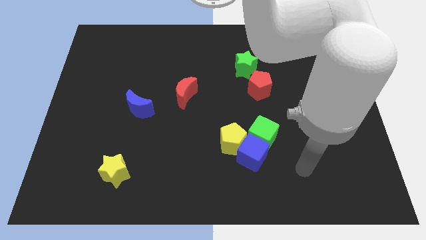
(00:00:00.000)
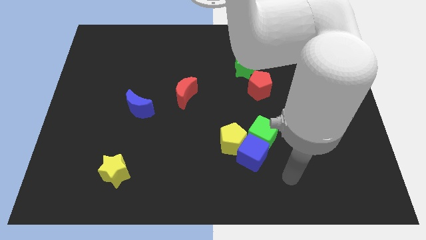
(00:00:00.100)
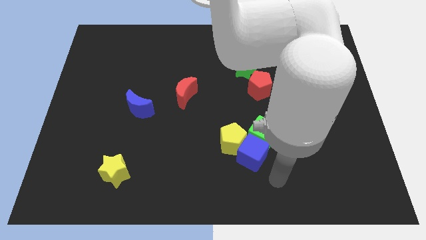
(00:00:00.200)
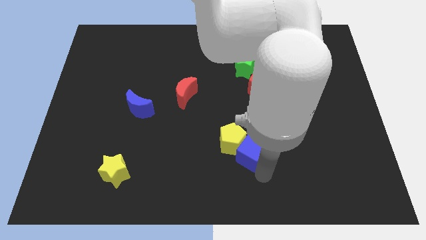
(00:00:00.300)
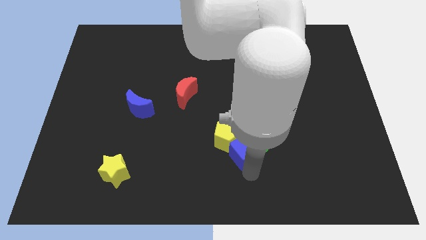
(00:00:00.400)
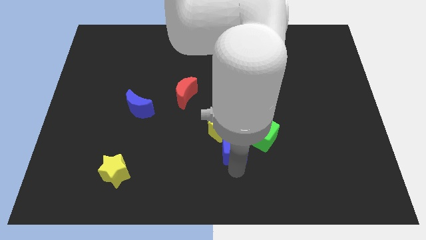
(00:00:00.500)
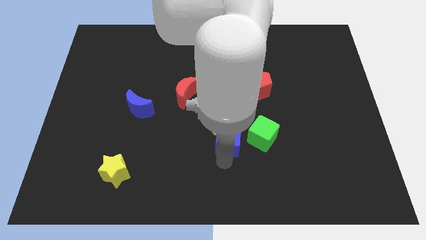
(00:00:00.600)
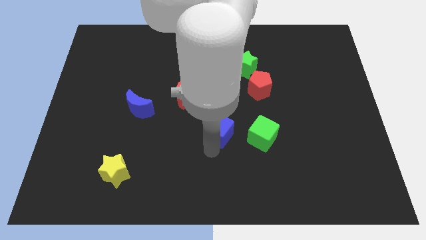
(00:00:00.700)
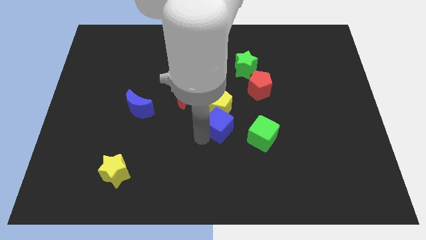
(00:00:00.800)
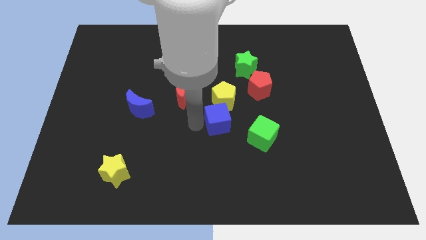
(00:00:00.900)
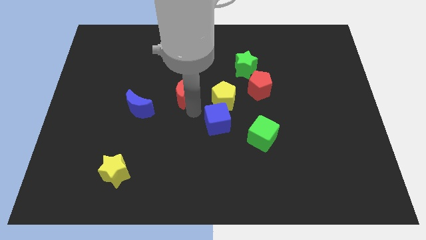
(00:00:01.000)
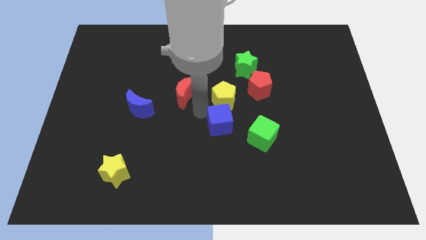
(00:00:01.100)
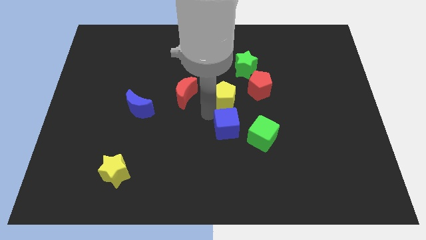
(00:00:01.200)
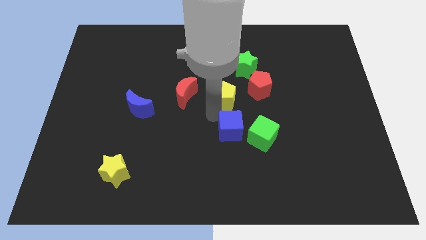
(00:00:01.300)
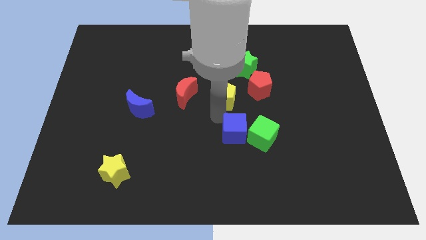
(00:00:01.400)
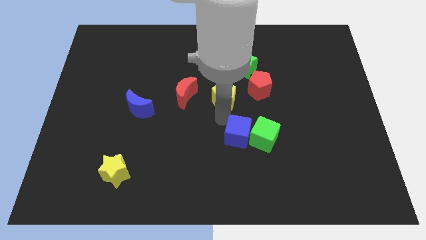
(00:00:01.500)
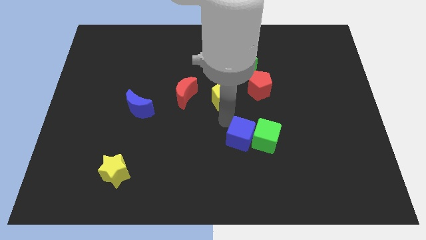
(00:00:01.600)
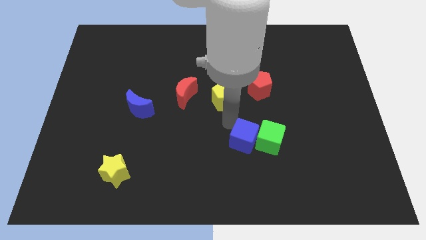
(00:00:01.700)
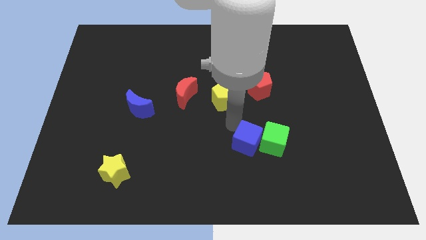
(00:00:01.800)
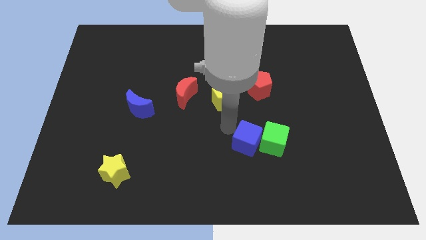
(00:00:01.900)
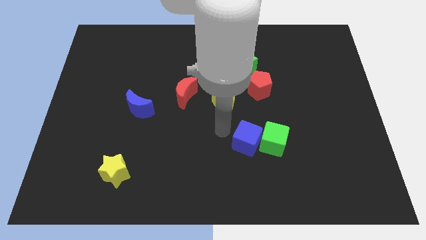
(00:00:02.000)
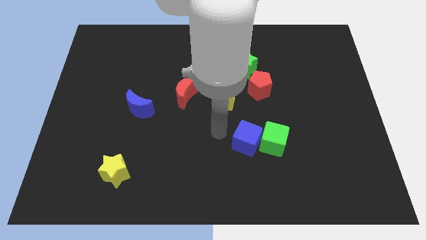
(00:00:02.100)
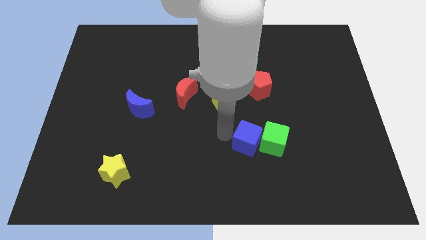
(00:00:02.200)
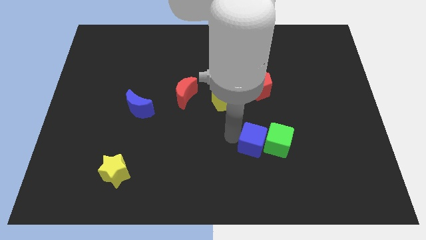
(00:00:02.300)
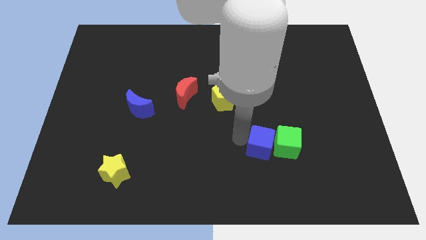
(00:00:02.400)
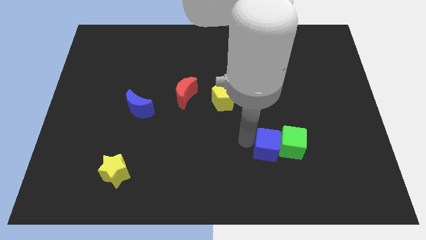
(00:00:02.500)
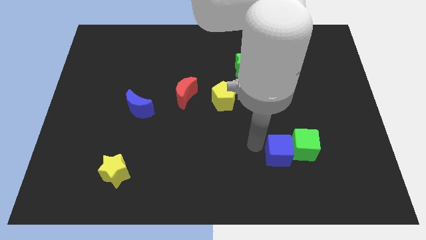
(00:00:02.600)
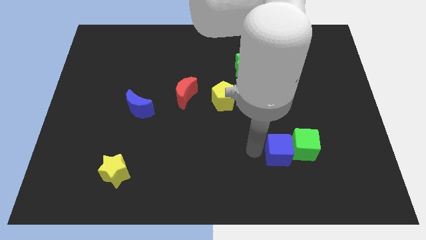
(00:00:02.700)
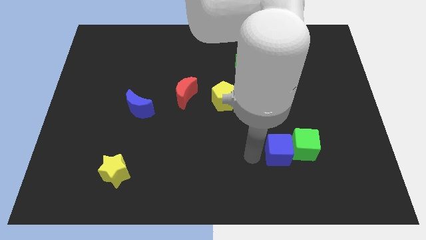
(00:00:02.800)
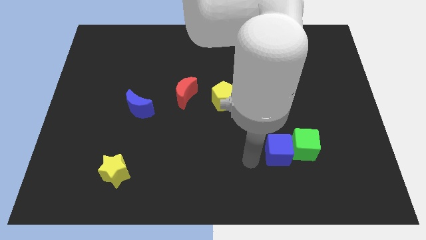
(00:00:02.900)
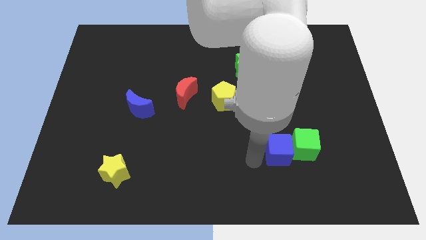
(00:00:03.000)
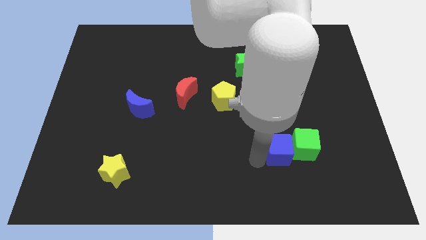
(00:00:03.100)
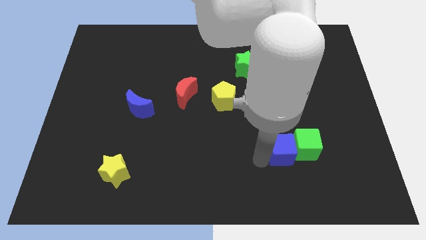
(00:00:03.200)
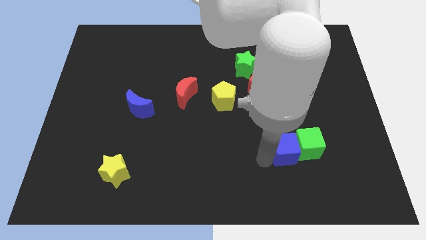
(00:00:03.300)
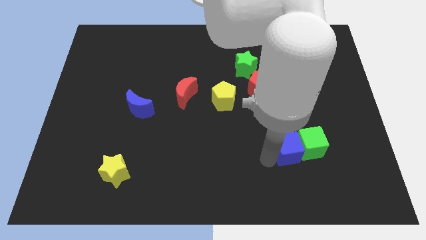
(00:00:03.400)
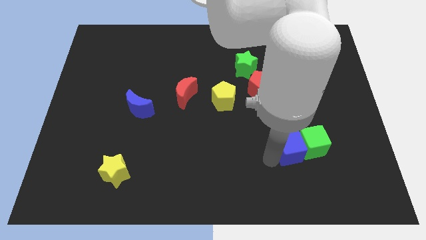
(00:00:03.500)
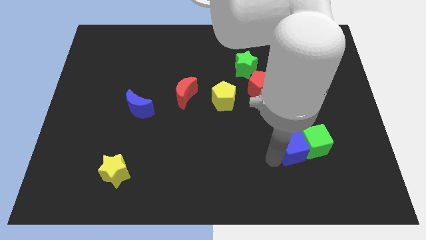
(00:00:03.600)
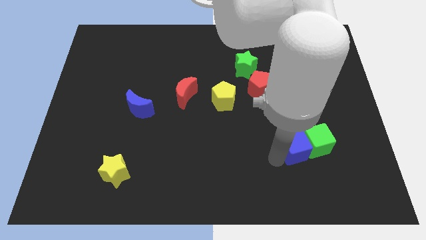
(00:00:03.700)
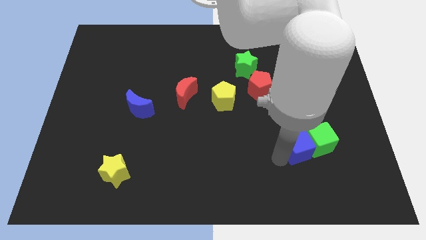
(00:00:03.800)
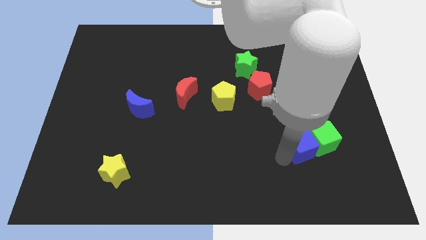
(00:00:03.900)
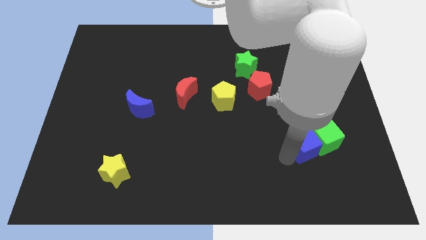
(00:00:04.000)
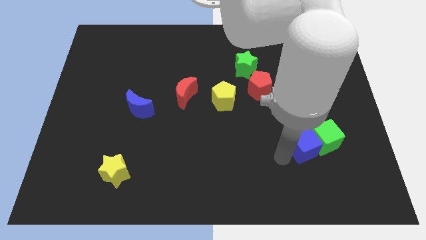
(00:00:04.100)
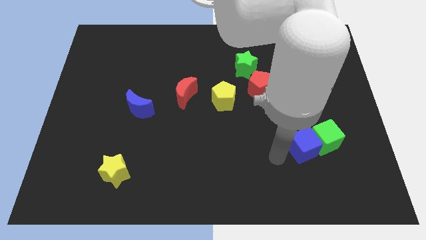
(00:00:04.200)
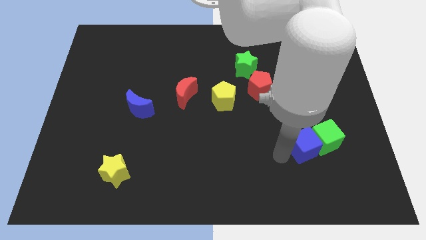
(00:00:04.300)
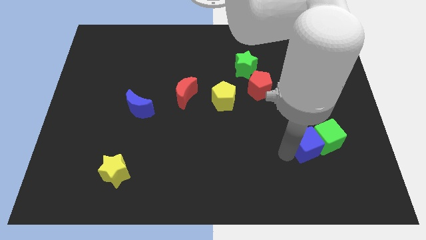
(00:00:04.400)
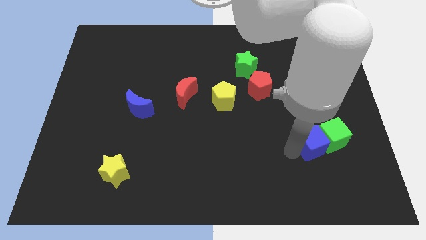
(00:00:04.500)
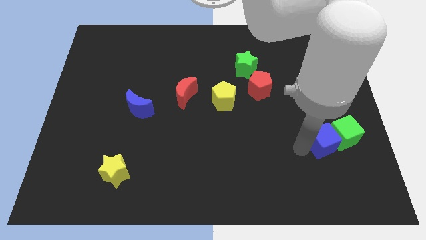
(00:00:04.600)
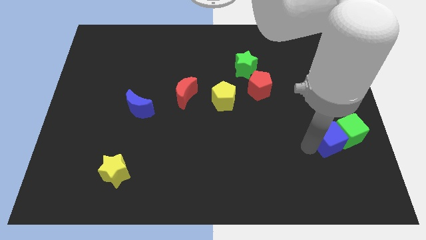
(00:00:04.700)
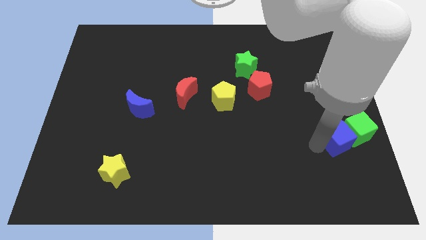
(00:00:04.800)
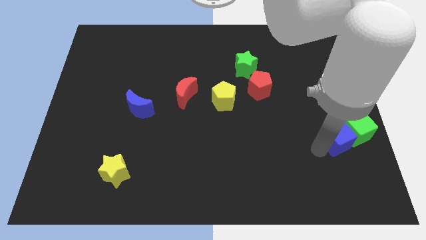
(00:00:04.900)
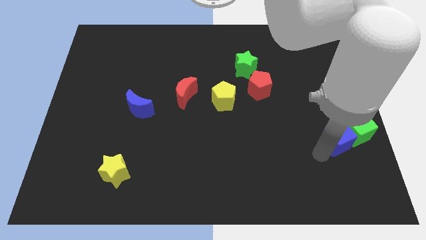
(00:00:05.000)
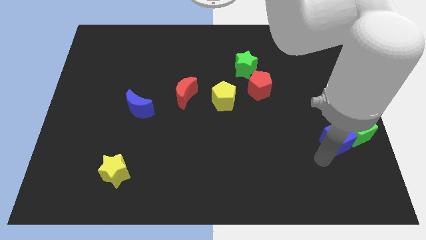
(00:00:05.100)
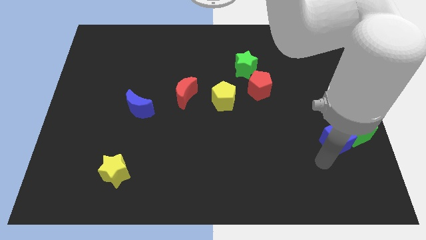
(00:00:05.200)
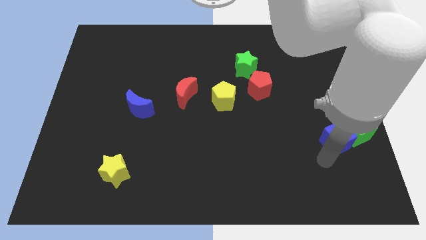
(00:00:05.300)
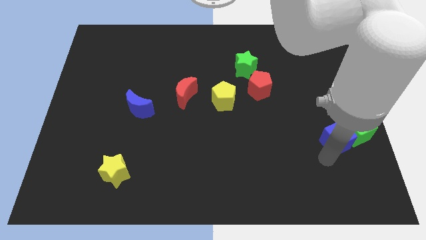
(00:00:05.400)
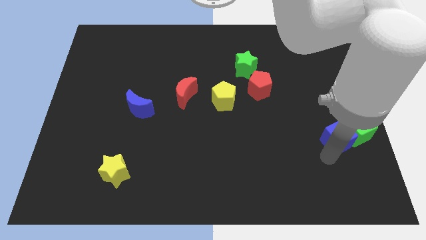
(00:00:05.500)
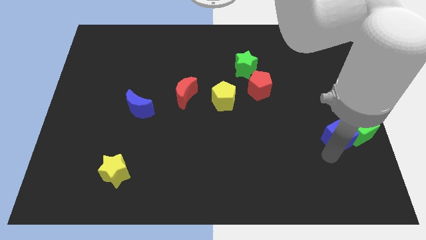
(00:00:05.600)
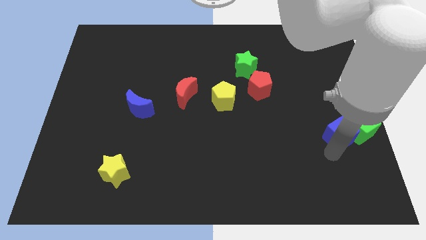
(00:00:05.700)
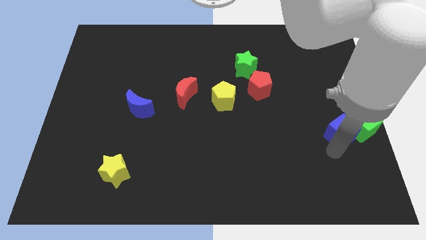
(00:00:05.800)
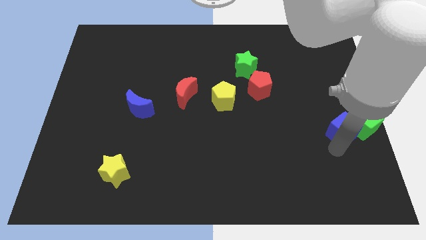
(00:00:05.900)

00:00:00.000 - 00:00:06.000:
put the blue cube to the right side

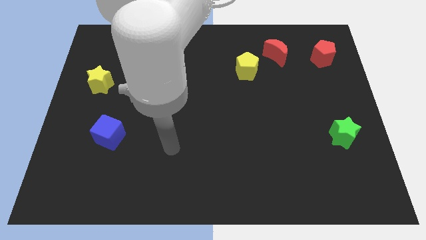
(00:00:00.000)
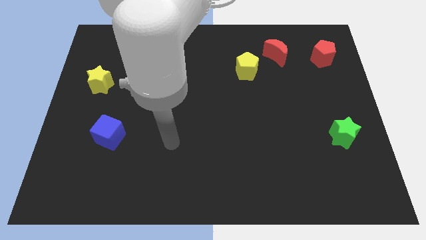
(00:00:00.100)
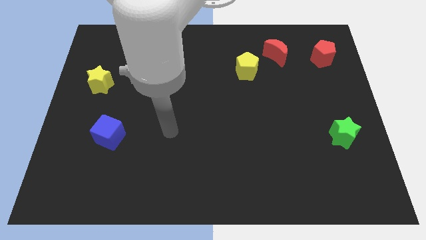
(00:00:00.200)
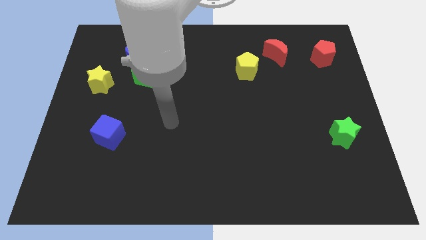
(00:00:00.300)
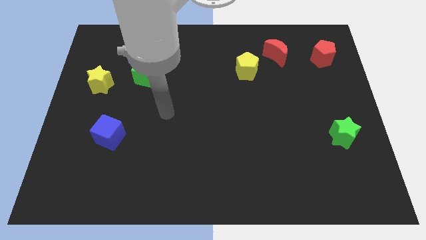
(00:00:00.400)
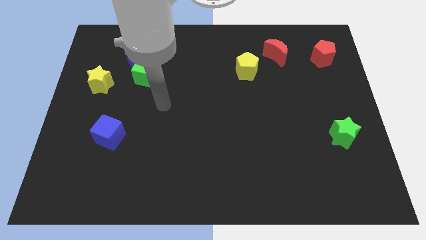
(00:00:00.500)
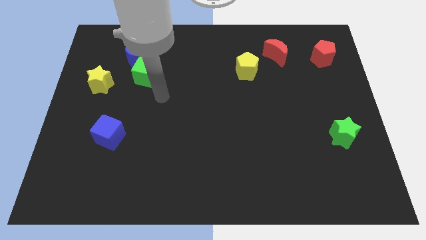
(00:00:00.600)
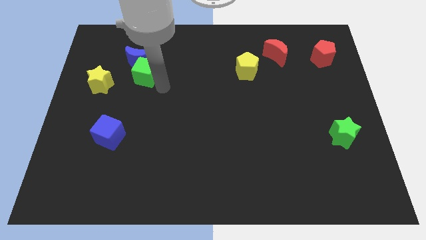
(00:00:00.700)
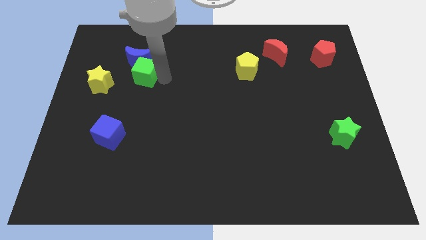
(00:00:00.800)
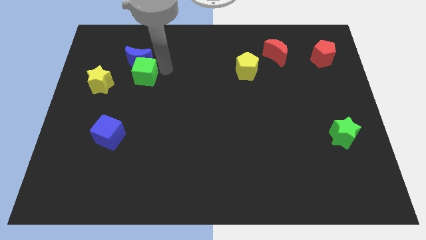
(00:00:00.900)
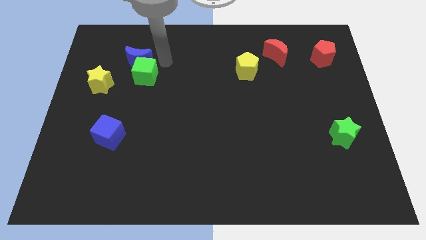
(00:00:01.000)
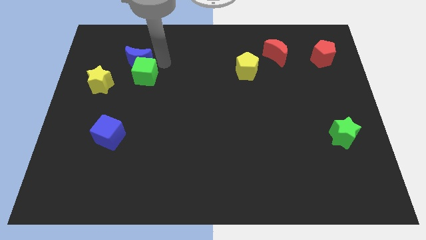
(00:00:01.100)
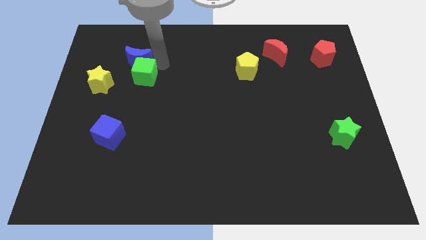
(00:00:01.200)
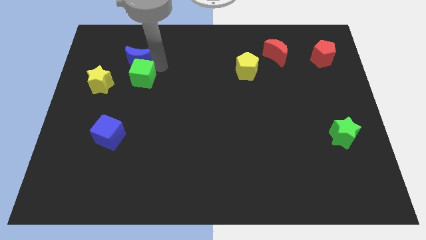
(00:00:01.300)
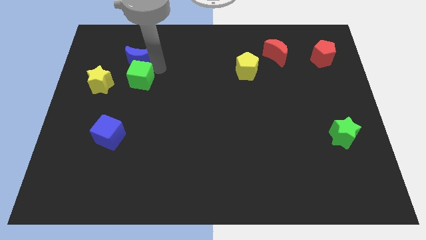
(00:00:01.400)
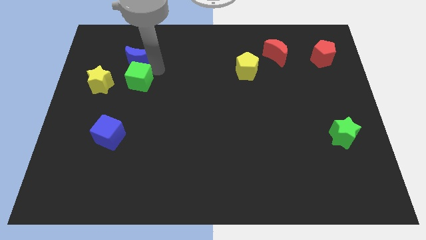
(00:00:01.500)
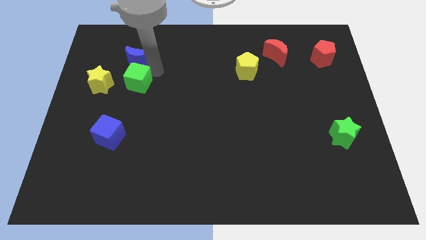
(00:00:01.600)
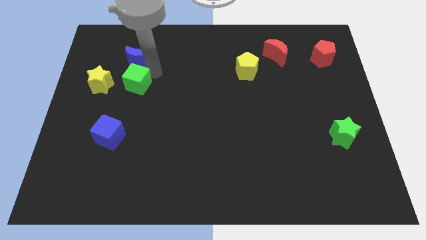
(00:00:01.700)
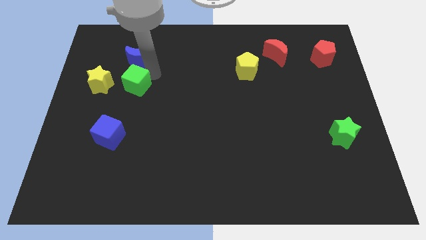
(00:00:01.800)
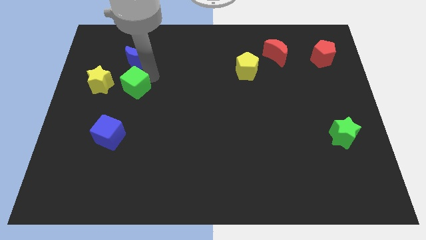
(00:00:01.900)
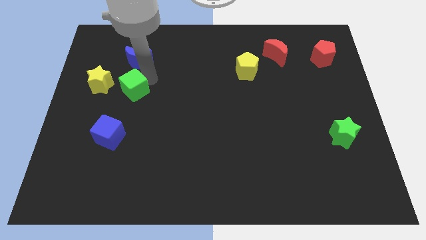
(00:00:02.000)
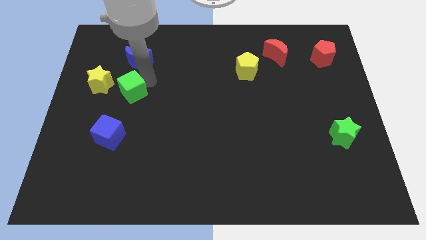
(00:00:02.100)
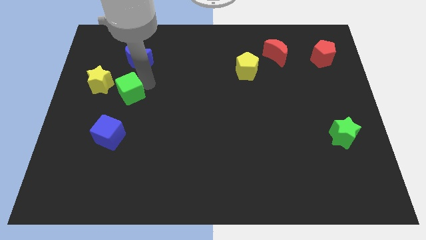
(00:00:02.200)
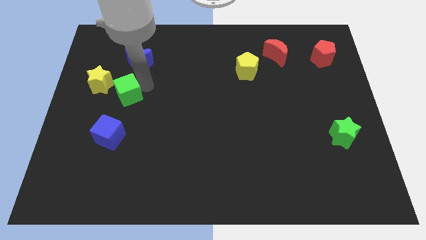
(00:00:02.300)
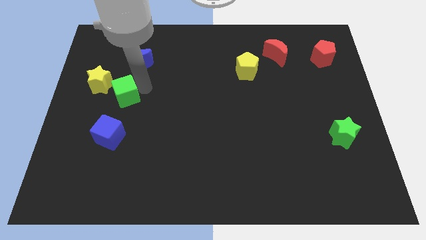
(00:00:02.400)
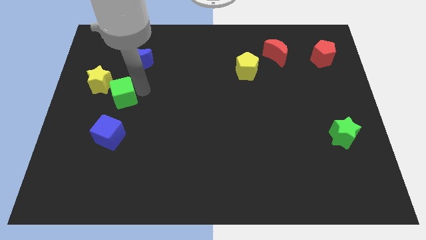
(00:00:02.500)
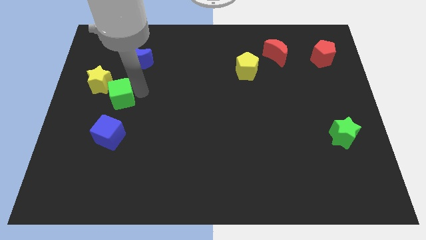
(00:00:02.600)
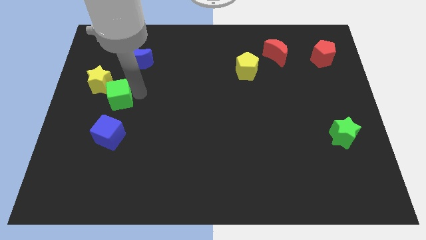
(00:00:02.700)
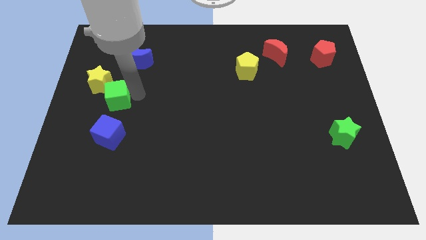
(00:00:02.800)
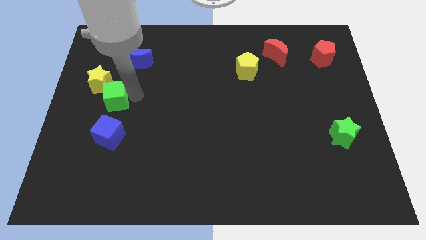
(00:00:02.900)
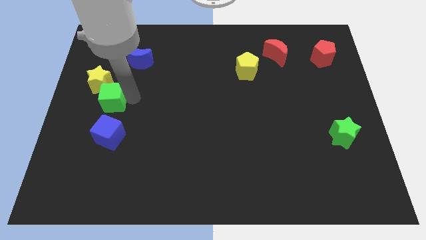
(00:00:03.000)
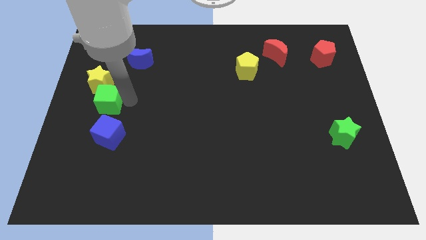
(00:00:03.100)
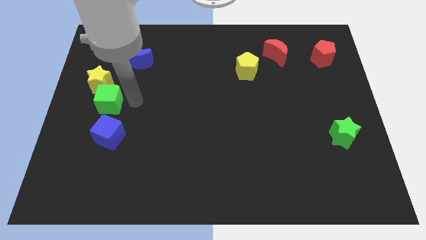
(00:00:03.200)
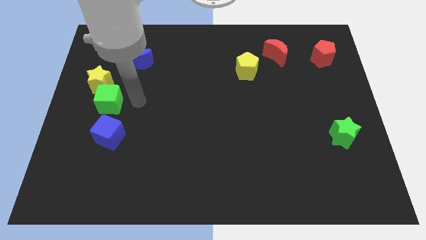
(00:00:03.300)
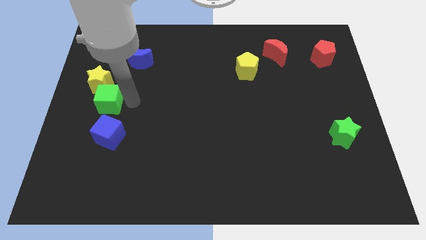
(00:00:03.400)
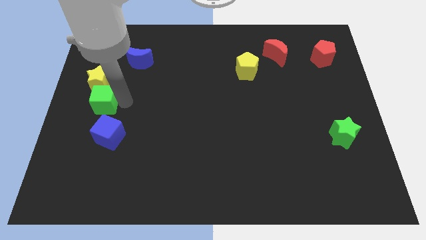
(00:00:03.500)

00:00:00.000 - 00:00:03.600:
put the green cube to the left side of the board
